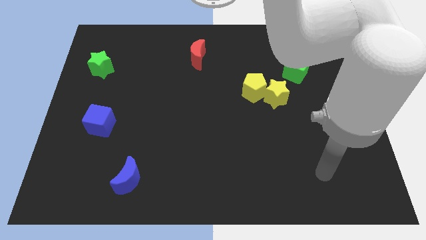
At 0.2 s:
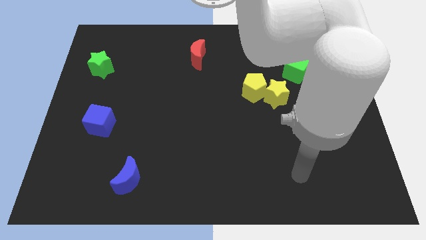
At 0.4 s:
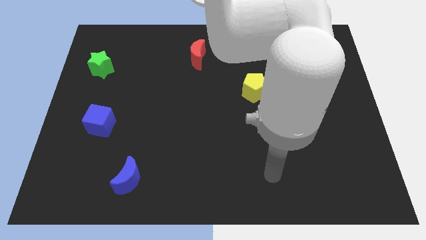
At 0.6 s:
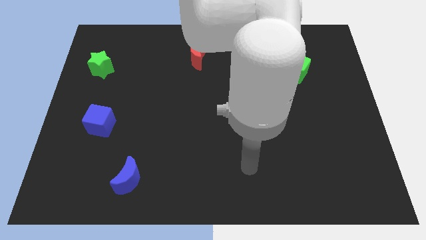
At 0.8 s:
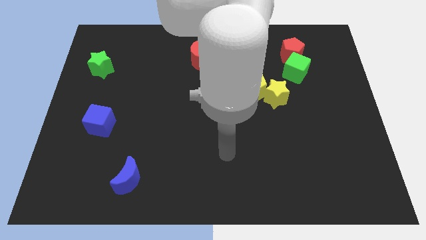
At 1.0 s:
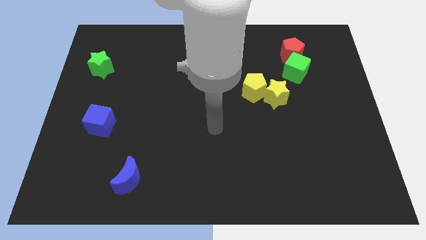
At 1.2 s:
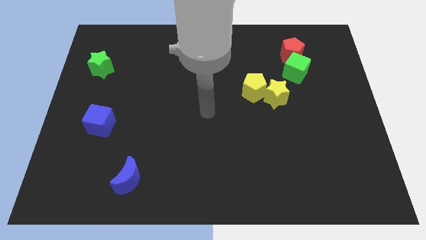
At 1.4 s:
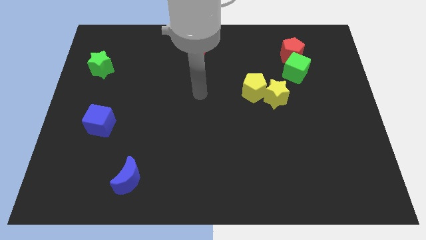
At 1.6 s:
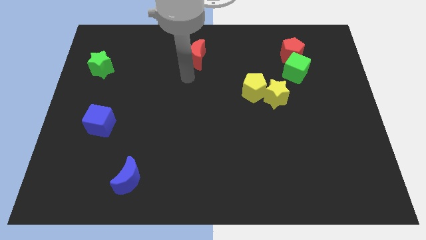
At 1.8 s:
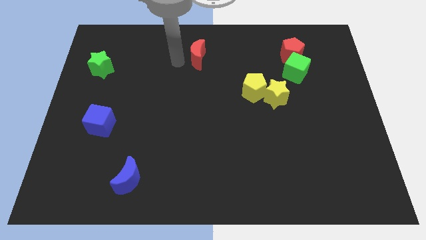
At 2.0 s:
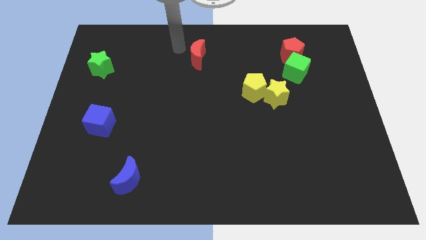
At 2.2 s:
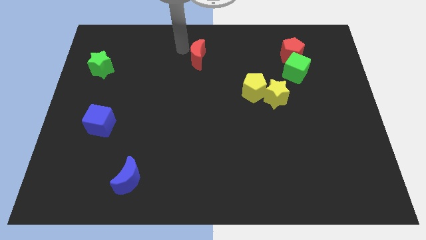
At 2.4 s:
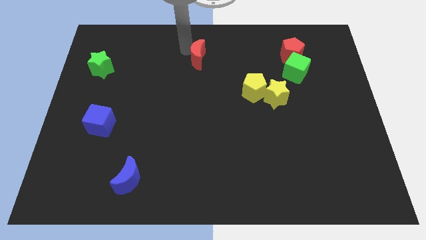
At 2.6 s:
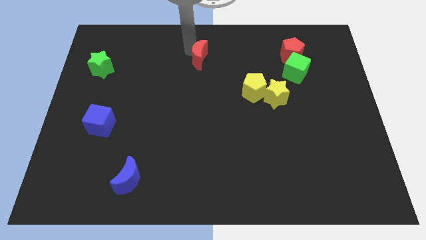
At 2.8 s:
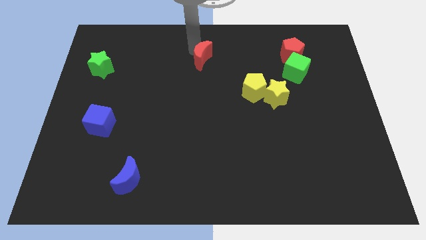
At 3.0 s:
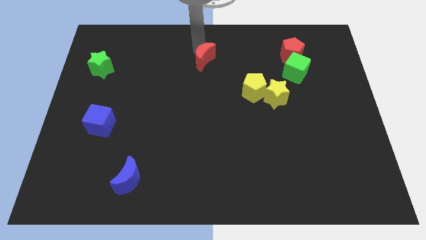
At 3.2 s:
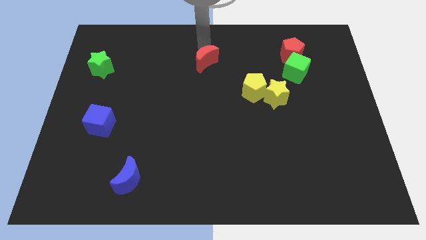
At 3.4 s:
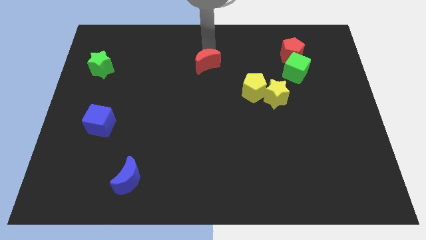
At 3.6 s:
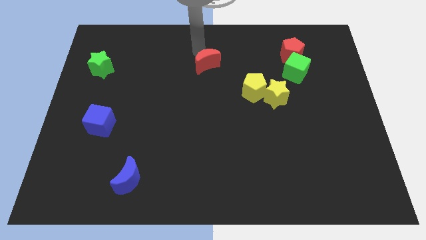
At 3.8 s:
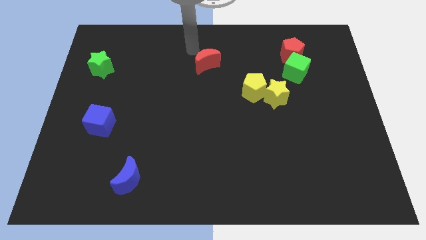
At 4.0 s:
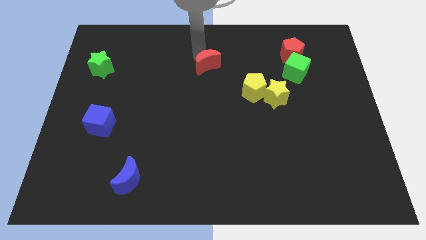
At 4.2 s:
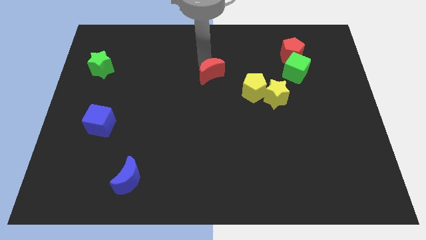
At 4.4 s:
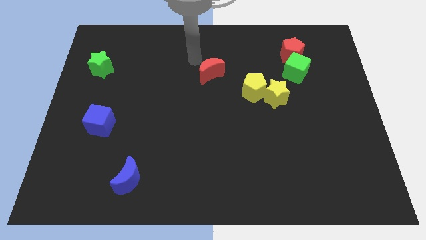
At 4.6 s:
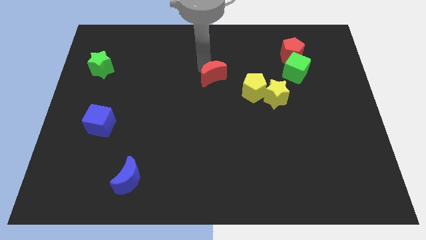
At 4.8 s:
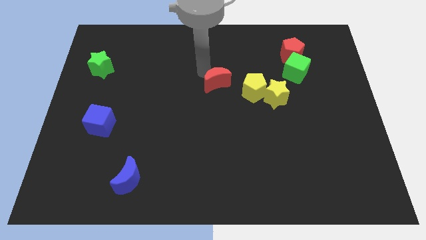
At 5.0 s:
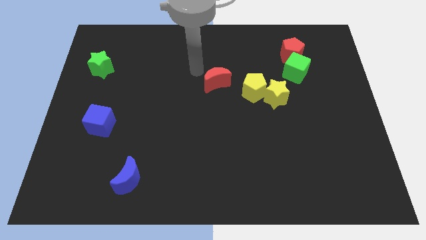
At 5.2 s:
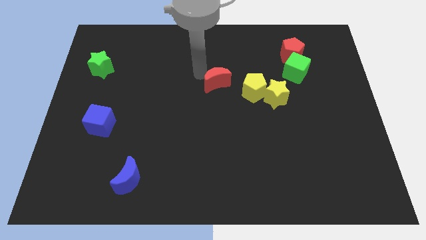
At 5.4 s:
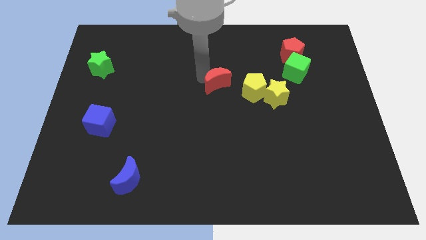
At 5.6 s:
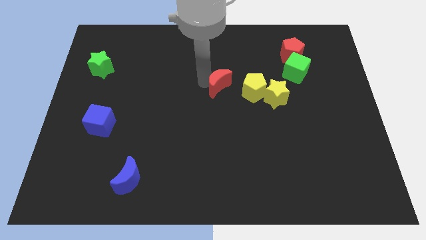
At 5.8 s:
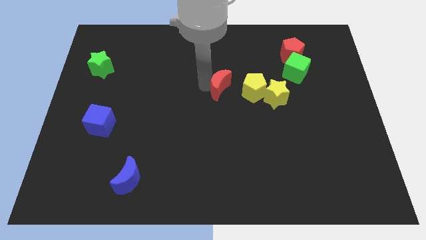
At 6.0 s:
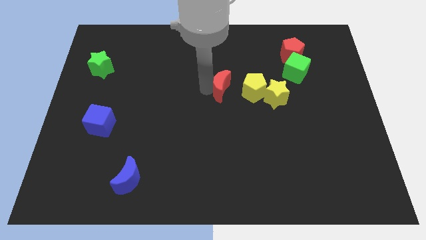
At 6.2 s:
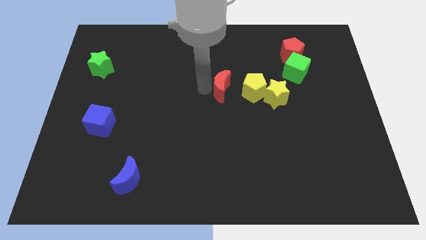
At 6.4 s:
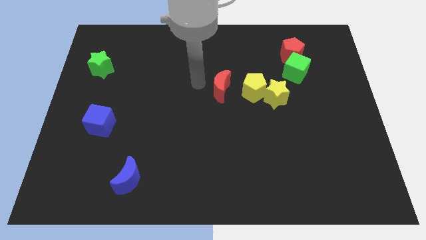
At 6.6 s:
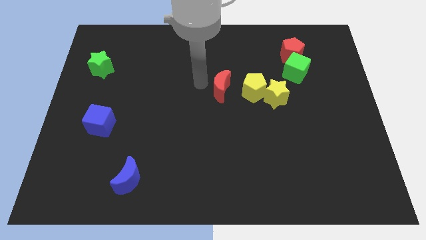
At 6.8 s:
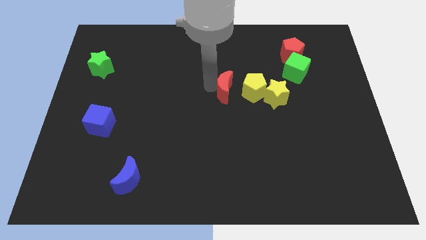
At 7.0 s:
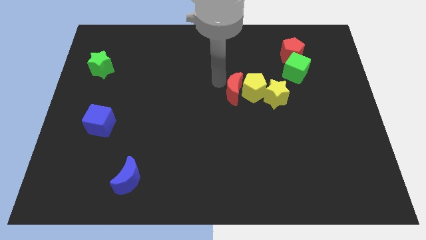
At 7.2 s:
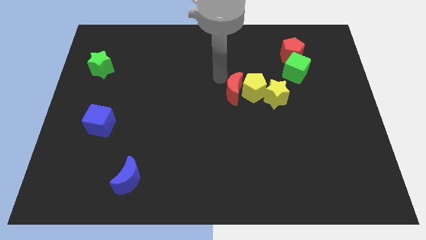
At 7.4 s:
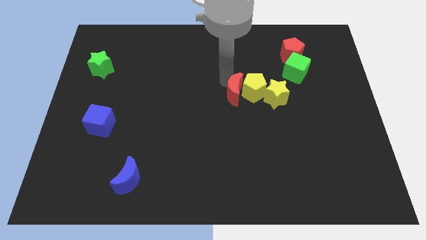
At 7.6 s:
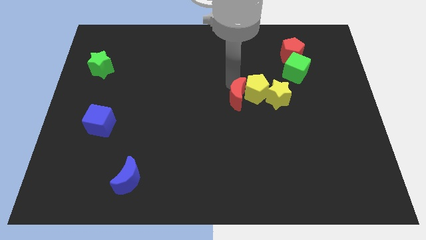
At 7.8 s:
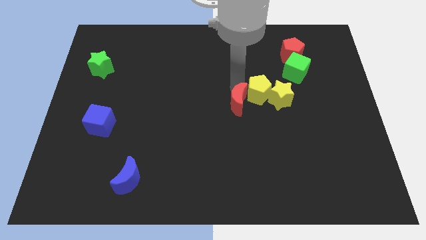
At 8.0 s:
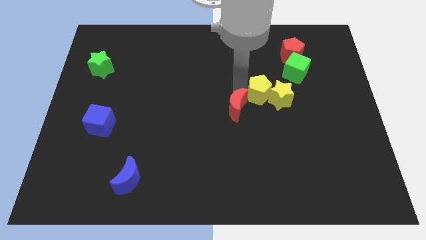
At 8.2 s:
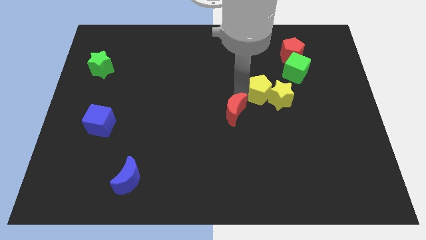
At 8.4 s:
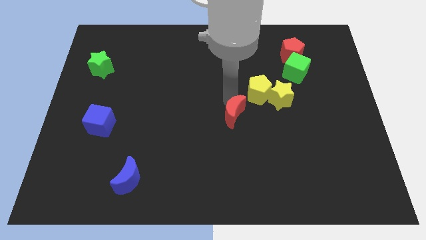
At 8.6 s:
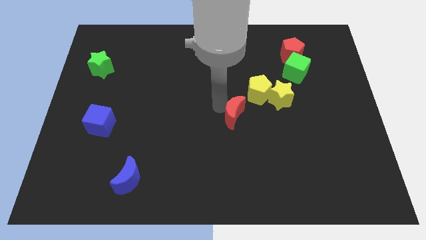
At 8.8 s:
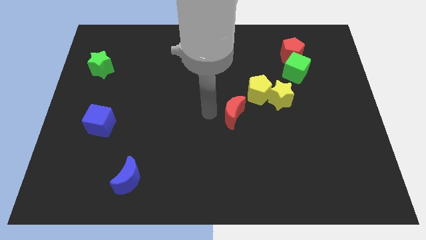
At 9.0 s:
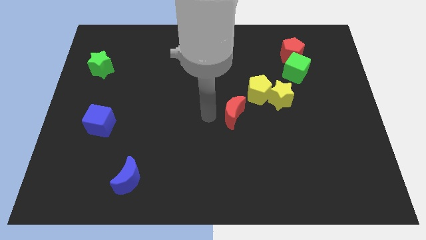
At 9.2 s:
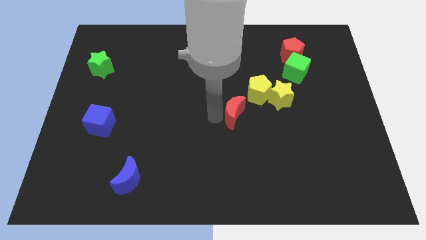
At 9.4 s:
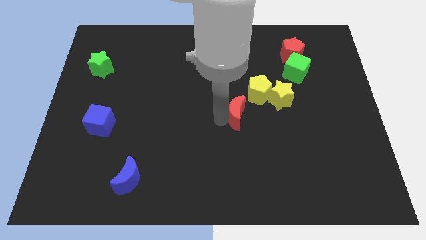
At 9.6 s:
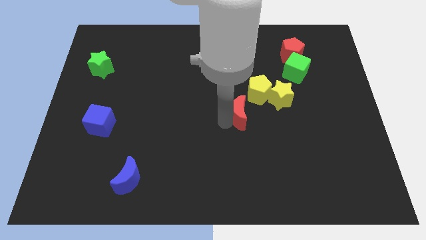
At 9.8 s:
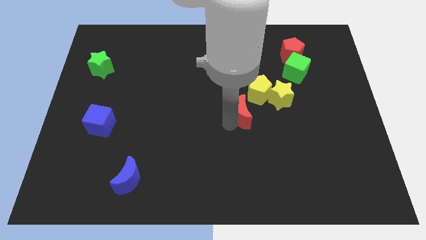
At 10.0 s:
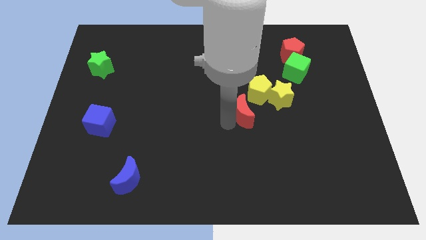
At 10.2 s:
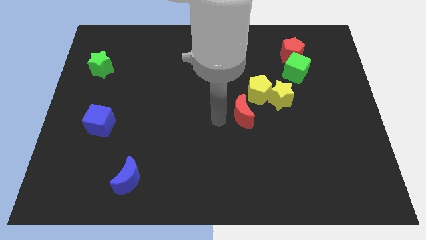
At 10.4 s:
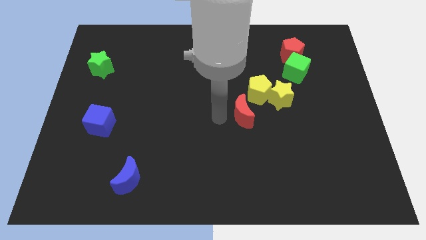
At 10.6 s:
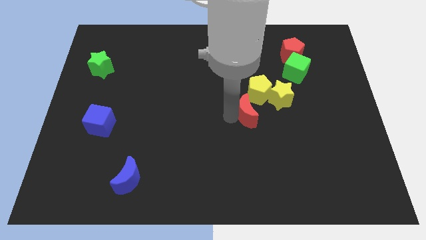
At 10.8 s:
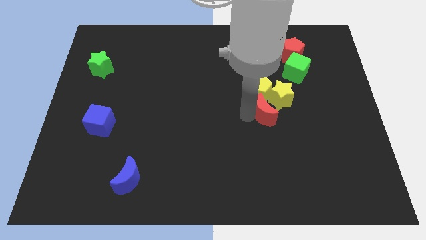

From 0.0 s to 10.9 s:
slide the red moon diagonally down and to the right of the yellow pentagon

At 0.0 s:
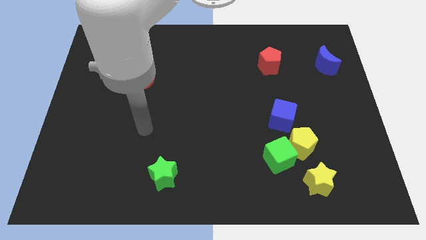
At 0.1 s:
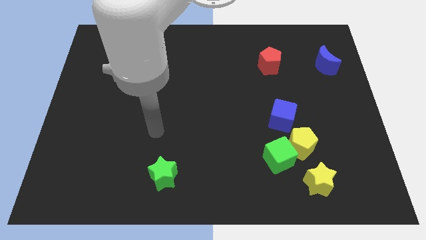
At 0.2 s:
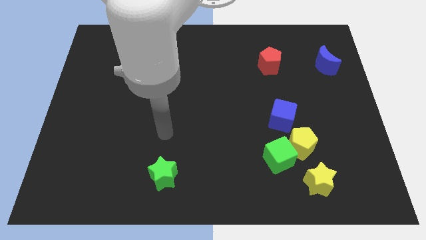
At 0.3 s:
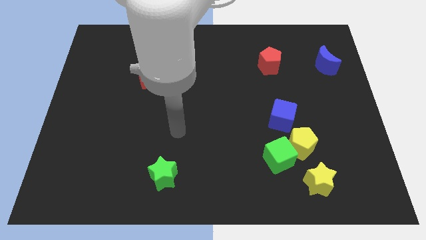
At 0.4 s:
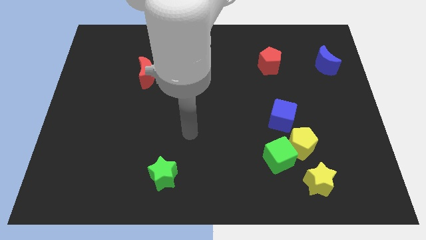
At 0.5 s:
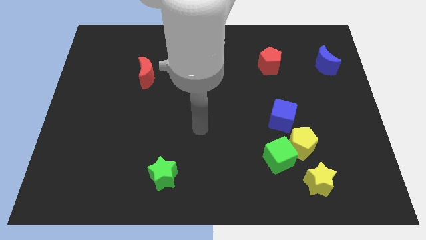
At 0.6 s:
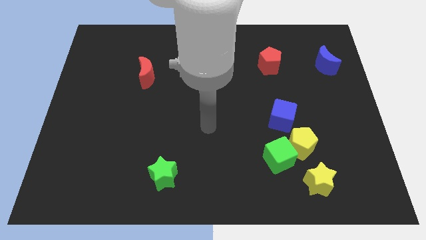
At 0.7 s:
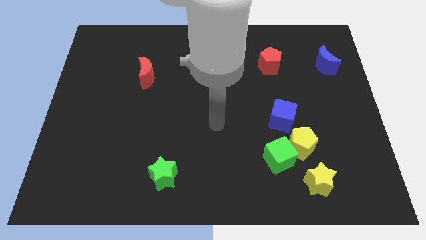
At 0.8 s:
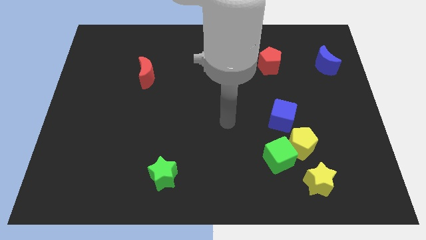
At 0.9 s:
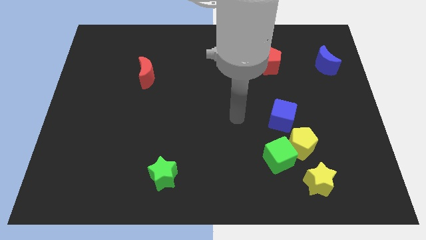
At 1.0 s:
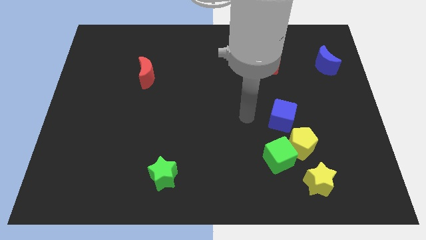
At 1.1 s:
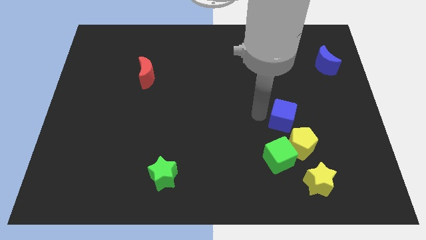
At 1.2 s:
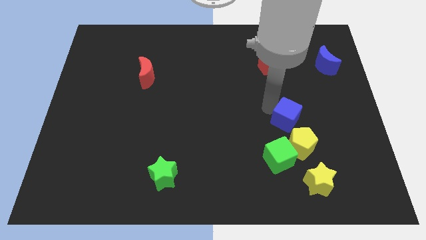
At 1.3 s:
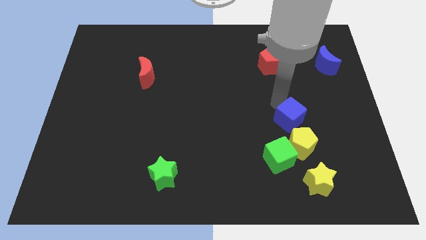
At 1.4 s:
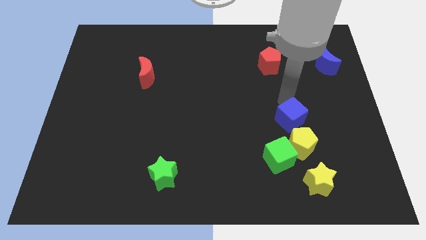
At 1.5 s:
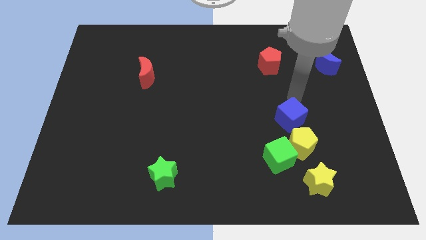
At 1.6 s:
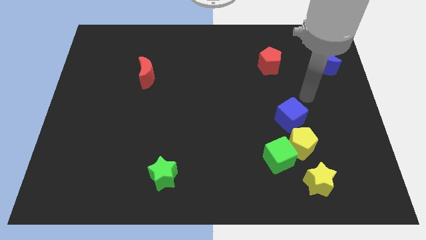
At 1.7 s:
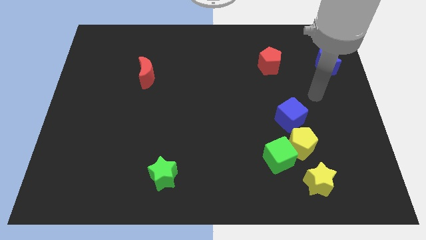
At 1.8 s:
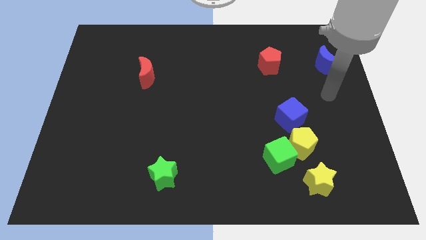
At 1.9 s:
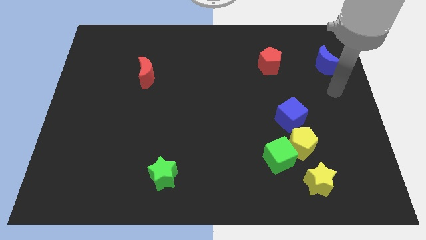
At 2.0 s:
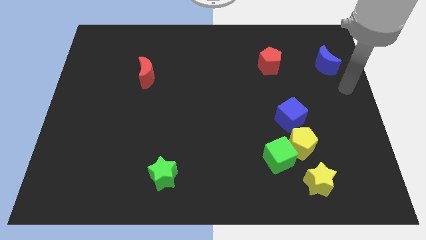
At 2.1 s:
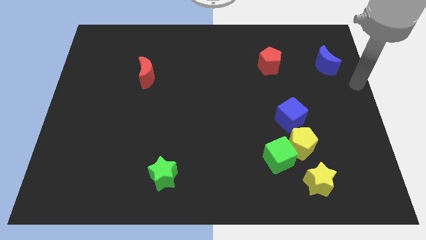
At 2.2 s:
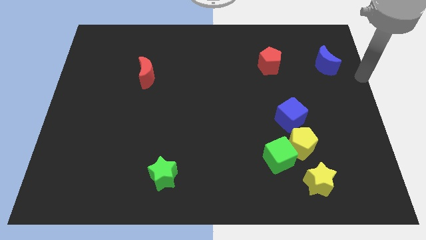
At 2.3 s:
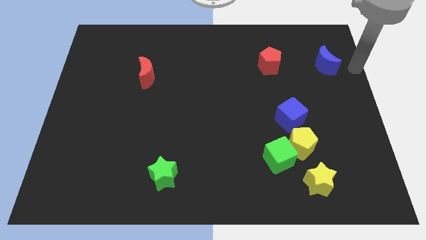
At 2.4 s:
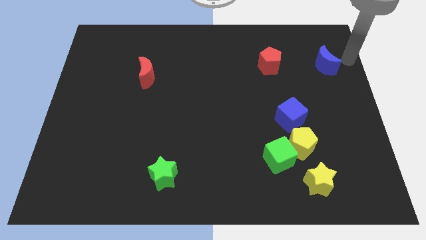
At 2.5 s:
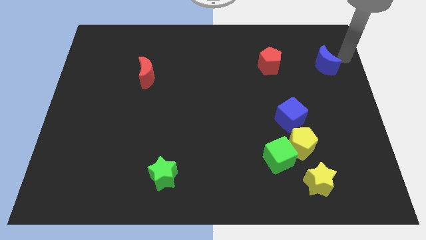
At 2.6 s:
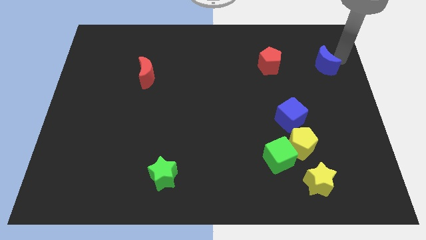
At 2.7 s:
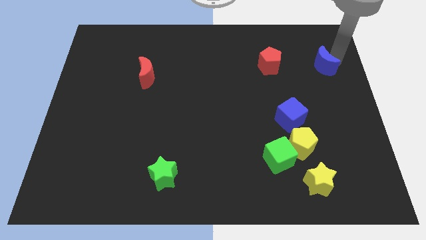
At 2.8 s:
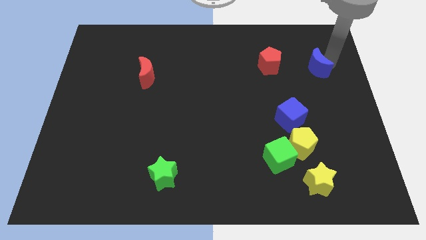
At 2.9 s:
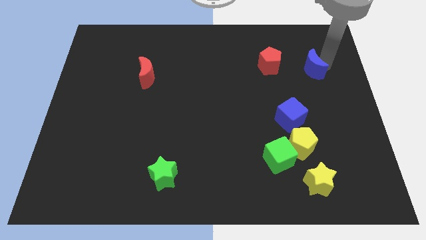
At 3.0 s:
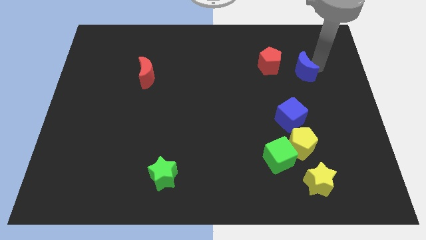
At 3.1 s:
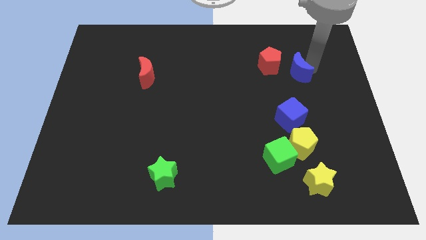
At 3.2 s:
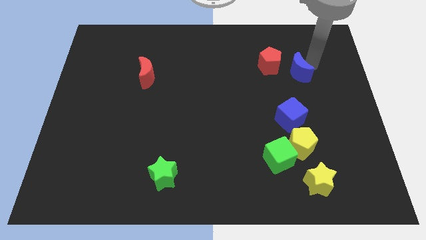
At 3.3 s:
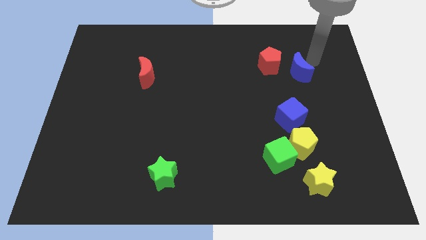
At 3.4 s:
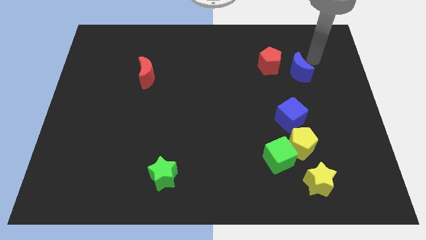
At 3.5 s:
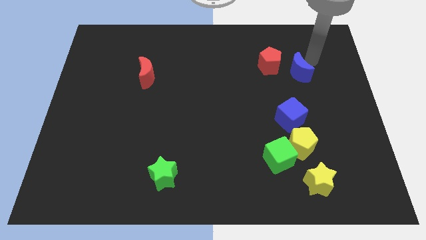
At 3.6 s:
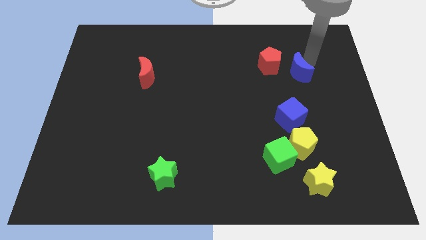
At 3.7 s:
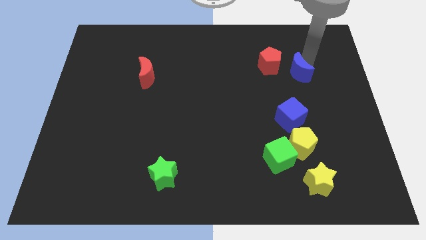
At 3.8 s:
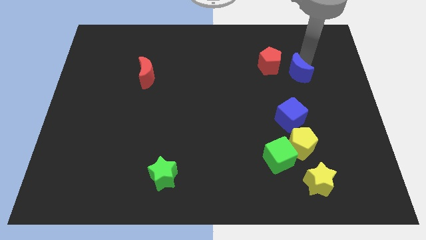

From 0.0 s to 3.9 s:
push the blue moon above the blue cube
